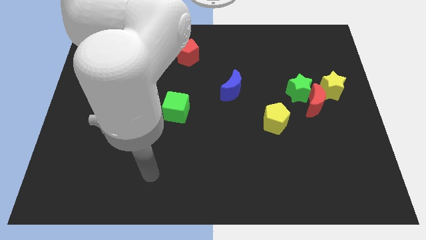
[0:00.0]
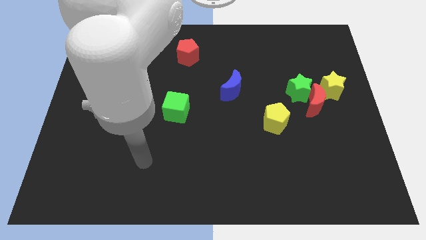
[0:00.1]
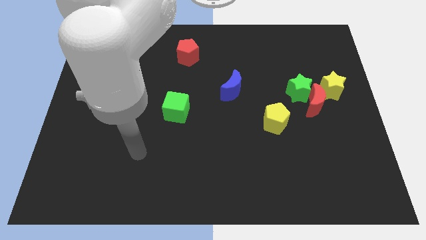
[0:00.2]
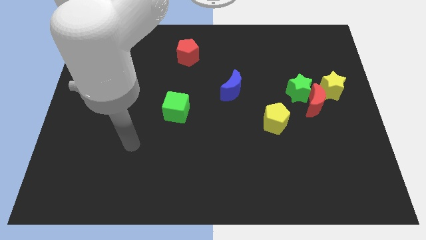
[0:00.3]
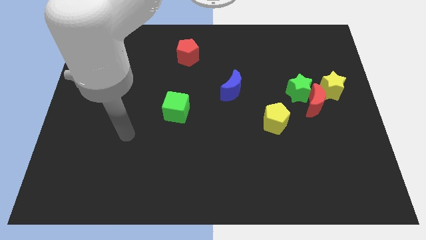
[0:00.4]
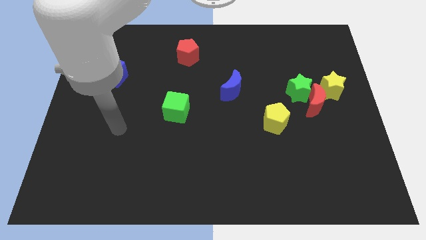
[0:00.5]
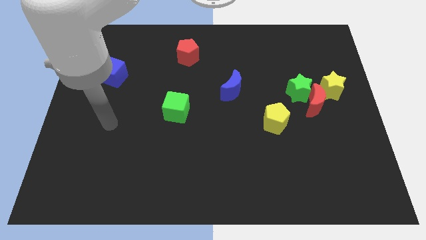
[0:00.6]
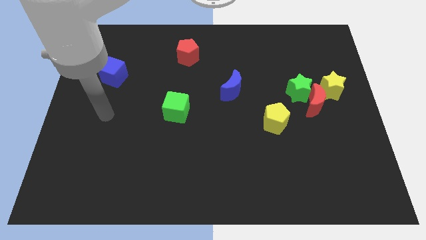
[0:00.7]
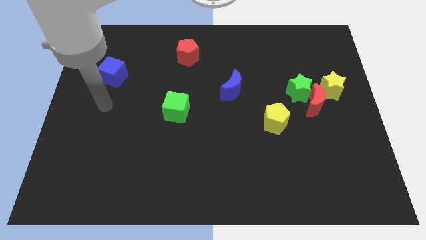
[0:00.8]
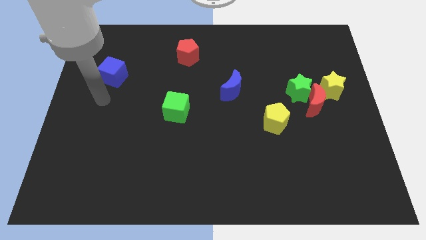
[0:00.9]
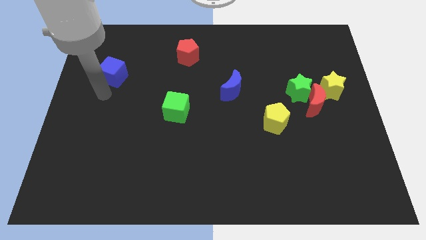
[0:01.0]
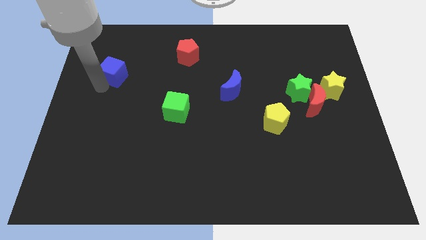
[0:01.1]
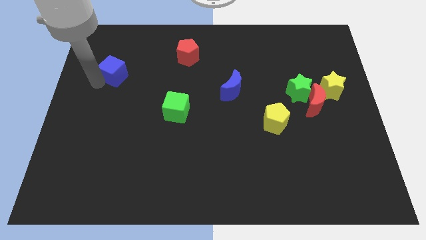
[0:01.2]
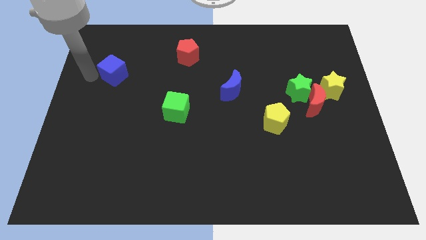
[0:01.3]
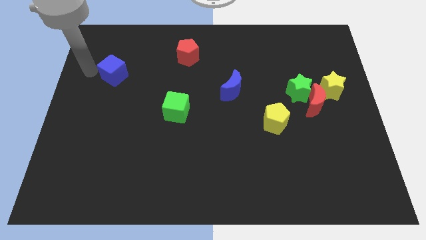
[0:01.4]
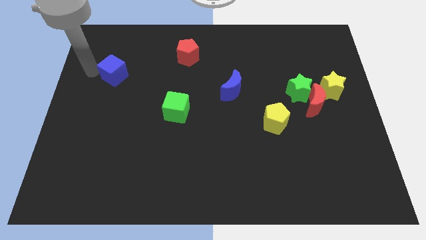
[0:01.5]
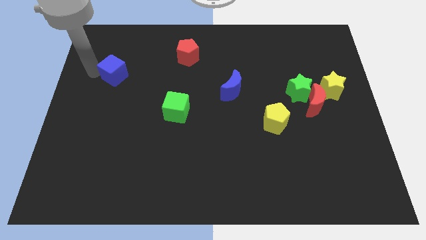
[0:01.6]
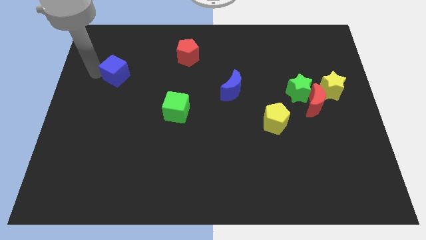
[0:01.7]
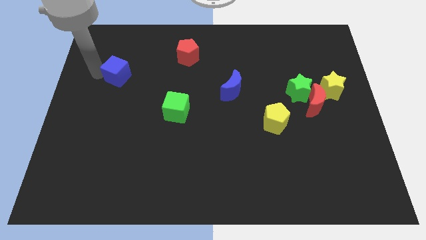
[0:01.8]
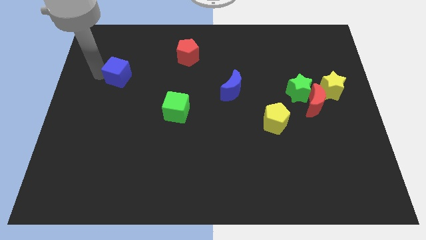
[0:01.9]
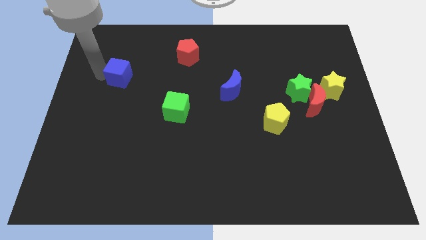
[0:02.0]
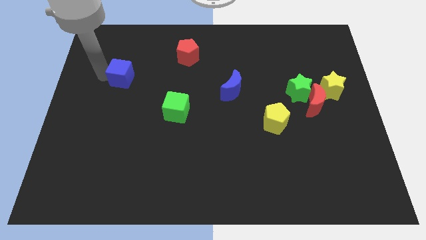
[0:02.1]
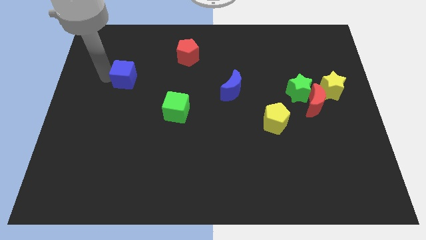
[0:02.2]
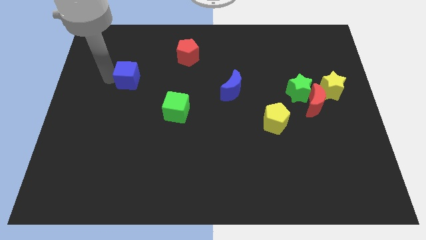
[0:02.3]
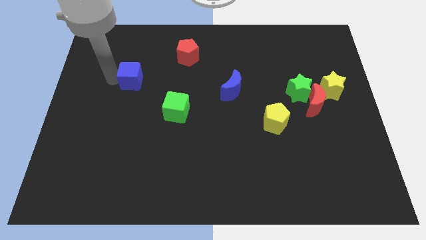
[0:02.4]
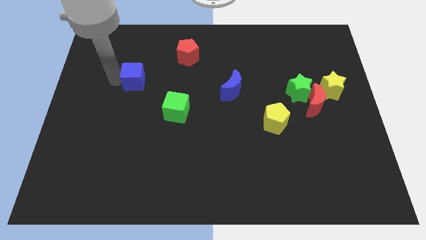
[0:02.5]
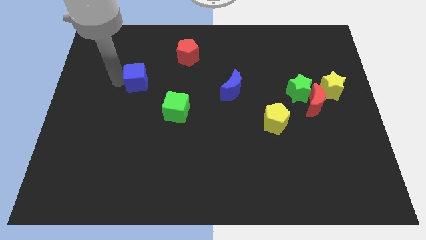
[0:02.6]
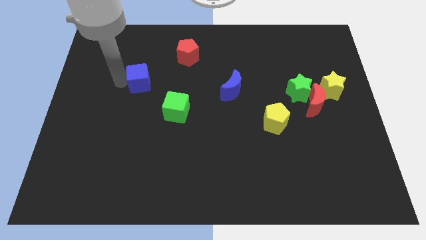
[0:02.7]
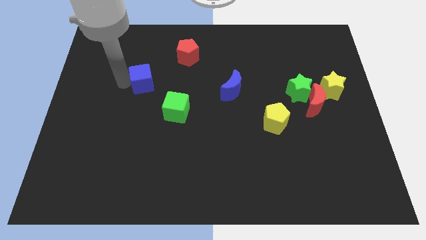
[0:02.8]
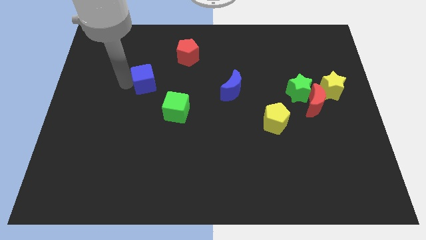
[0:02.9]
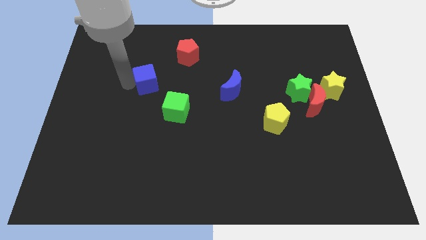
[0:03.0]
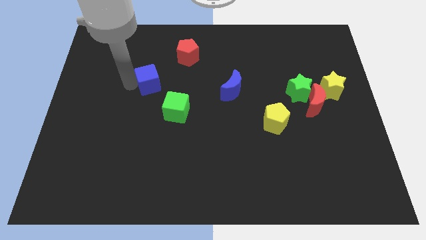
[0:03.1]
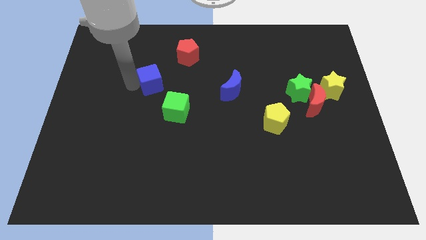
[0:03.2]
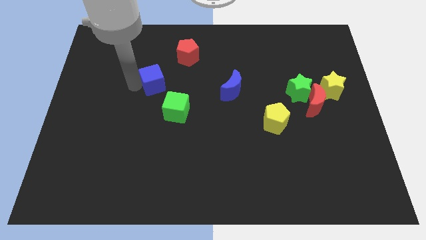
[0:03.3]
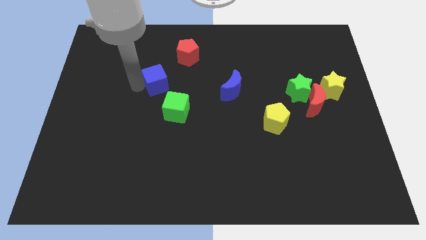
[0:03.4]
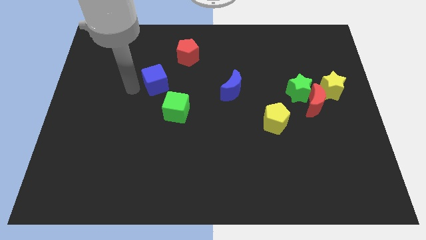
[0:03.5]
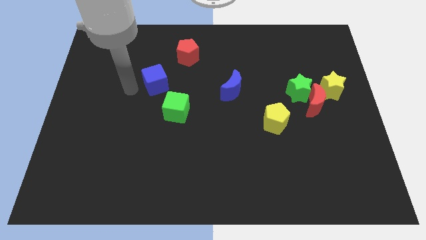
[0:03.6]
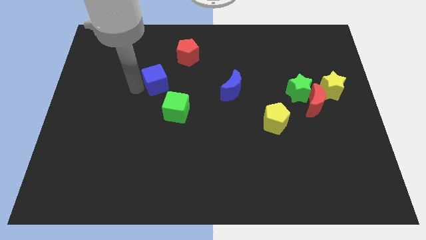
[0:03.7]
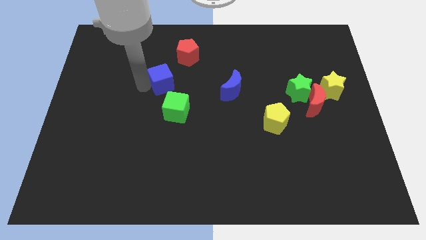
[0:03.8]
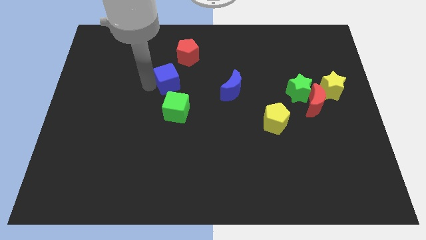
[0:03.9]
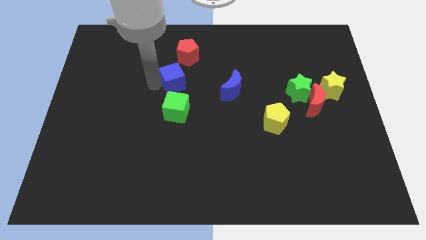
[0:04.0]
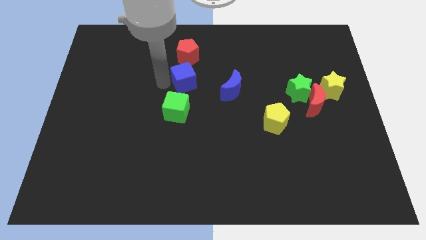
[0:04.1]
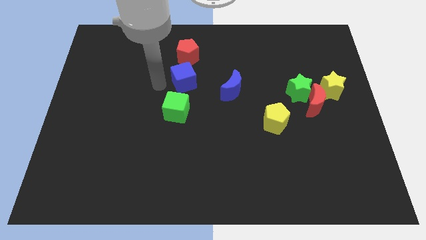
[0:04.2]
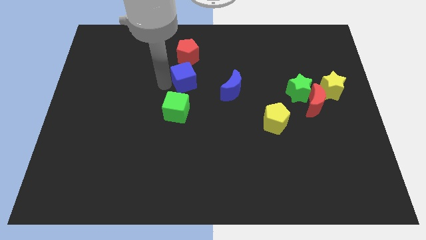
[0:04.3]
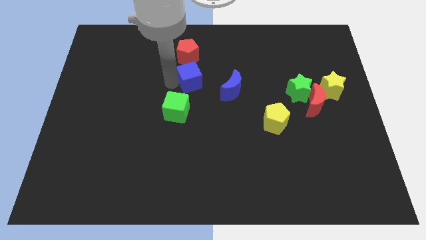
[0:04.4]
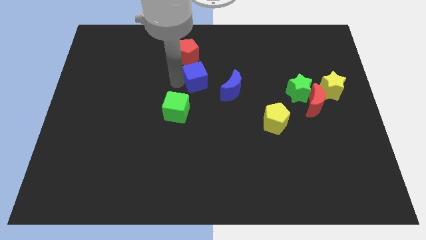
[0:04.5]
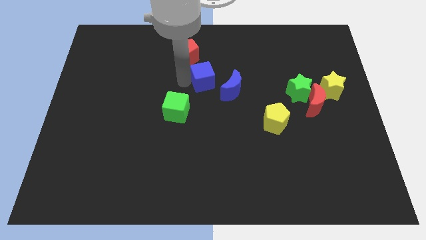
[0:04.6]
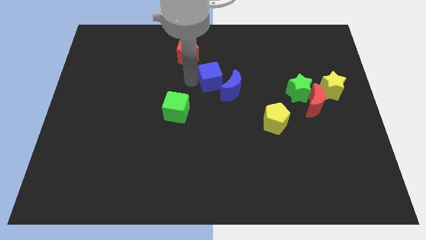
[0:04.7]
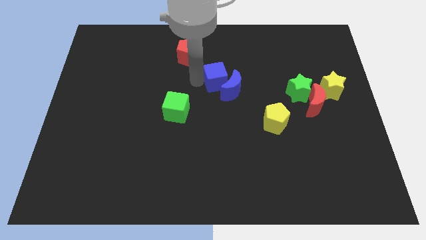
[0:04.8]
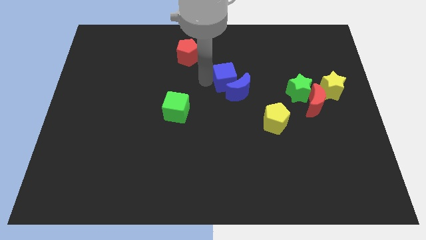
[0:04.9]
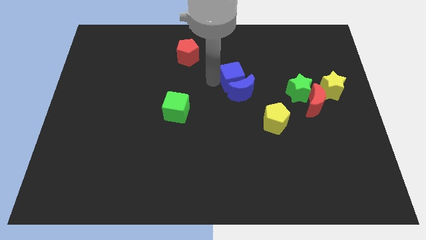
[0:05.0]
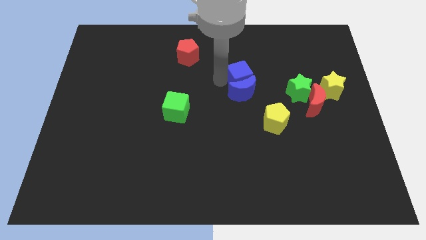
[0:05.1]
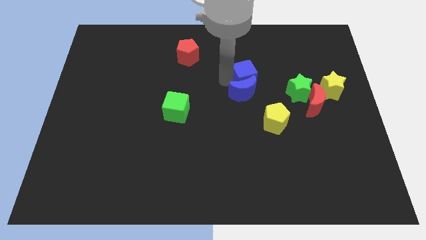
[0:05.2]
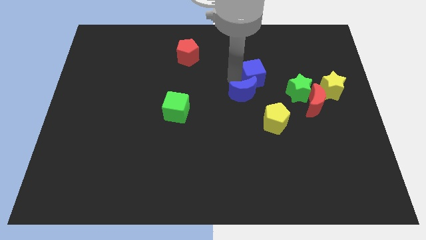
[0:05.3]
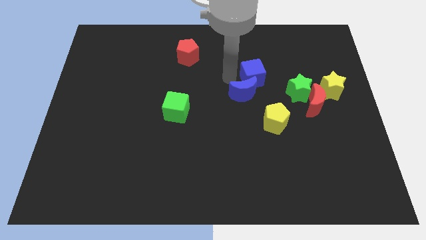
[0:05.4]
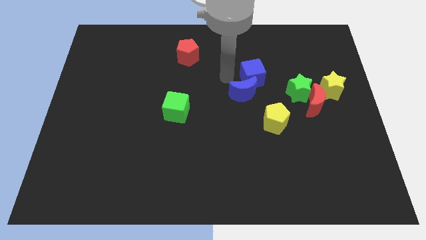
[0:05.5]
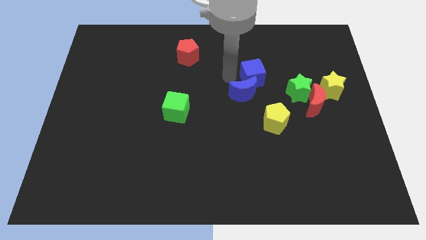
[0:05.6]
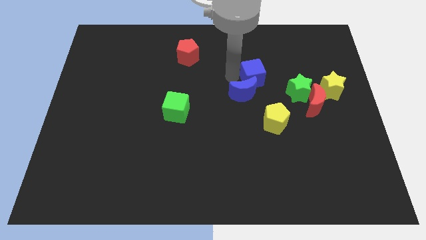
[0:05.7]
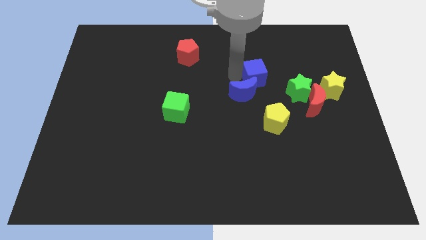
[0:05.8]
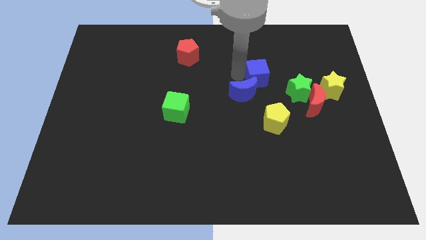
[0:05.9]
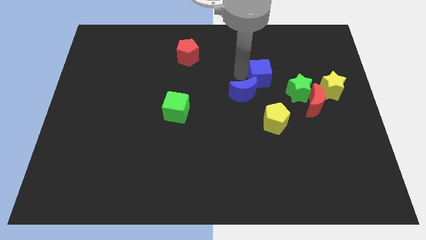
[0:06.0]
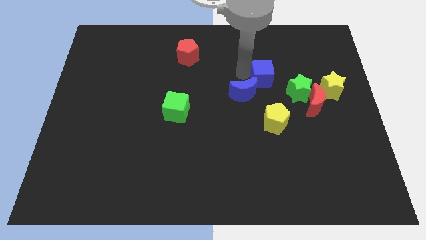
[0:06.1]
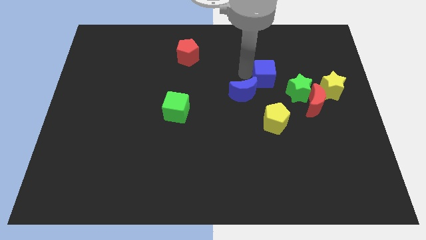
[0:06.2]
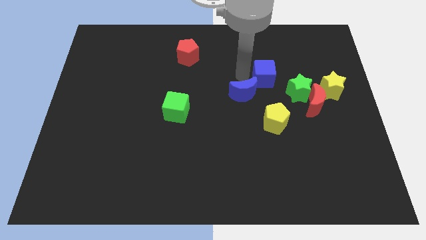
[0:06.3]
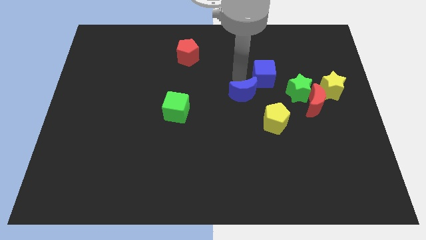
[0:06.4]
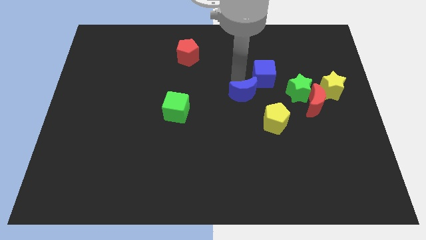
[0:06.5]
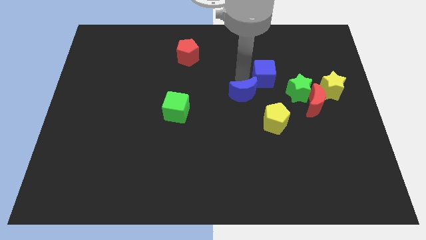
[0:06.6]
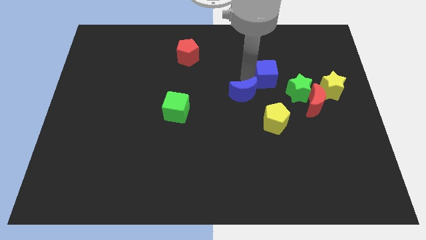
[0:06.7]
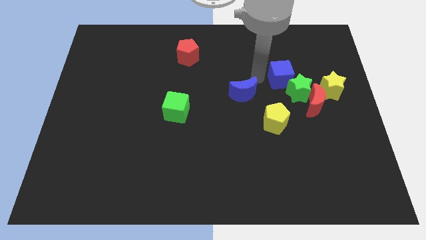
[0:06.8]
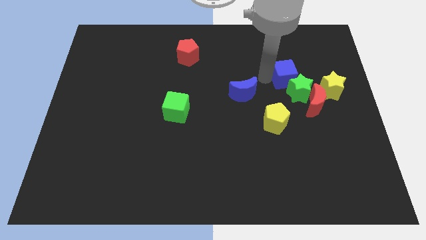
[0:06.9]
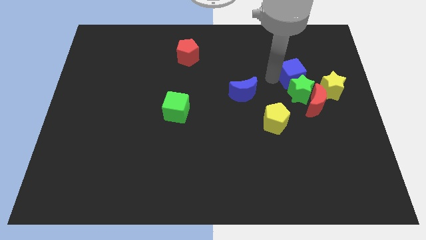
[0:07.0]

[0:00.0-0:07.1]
push the blue cube to the top left of the yellow star
